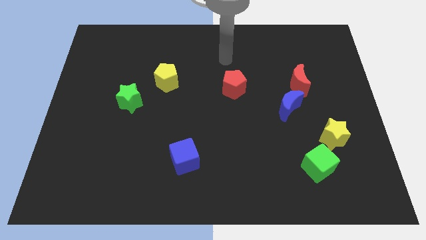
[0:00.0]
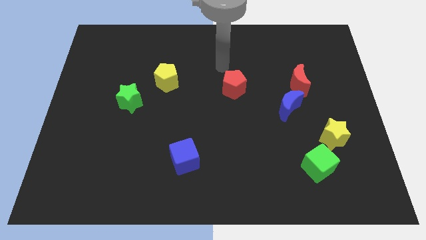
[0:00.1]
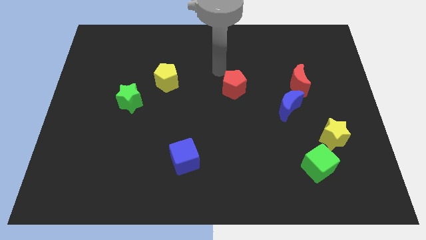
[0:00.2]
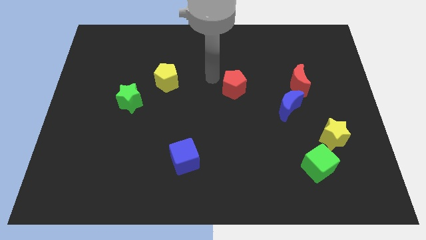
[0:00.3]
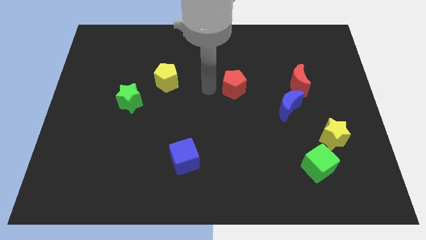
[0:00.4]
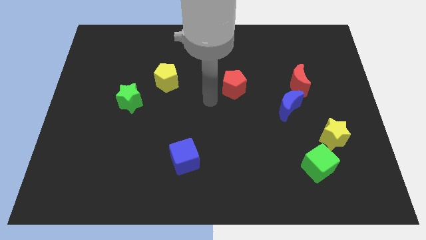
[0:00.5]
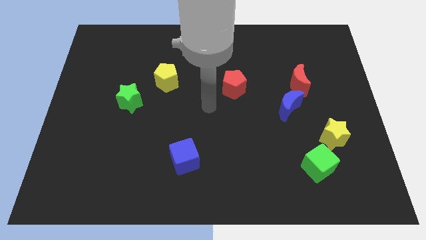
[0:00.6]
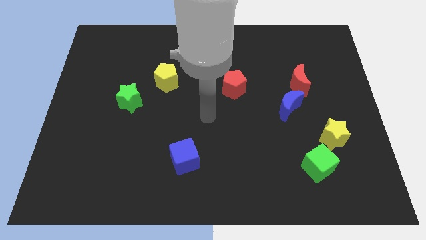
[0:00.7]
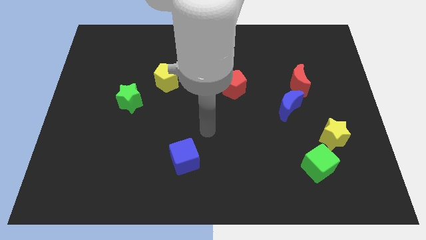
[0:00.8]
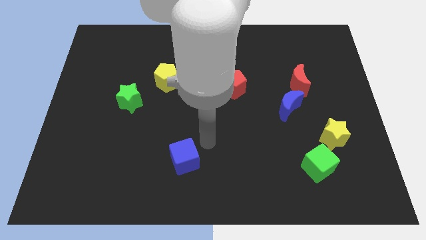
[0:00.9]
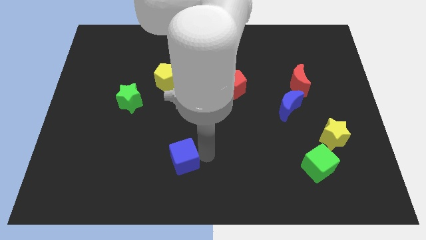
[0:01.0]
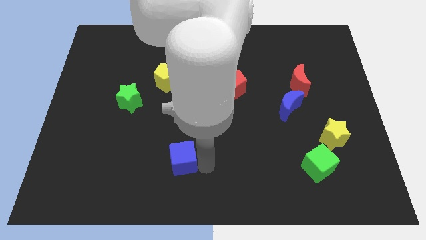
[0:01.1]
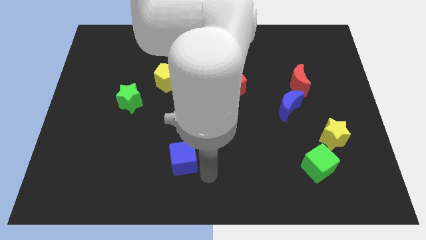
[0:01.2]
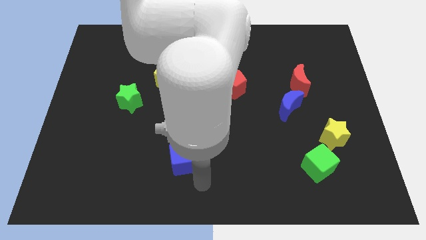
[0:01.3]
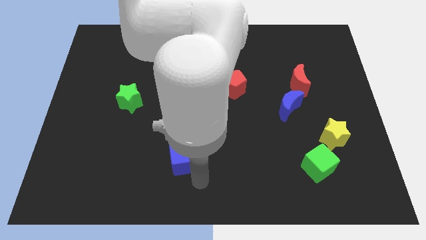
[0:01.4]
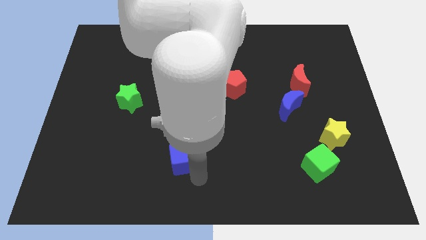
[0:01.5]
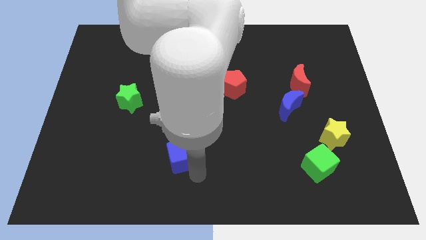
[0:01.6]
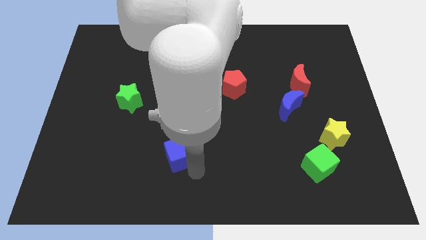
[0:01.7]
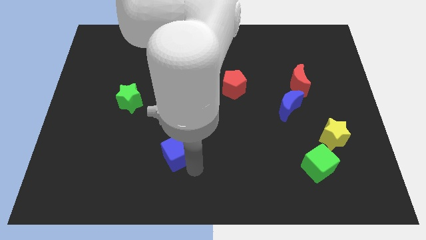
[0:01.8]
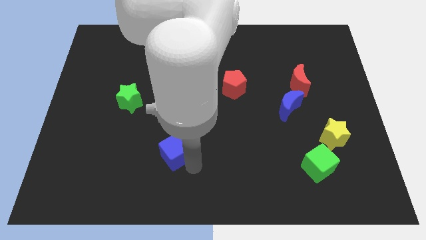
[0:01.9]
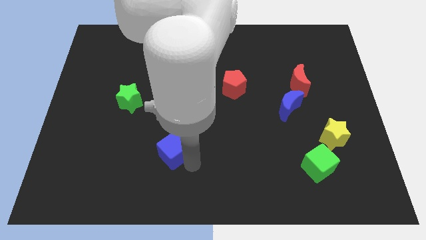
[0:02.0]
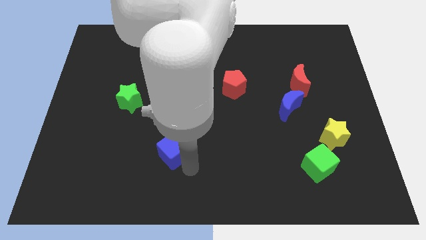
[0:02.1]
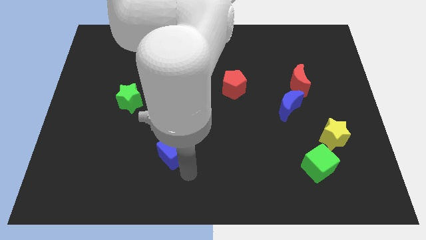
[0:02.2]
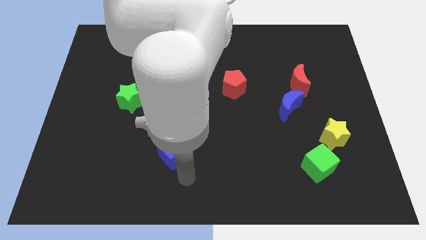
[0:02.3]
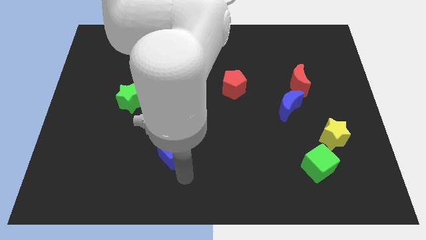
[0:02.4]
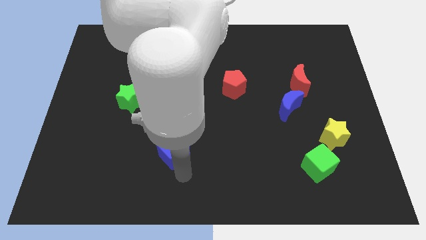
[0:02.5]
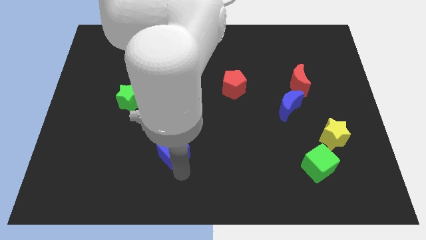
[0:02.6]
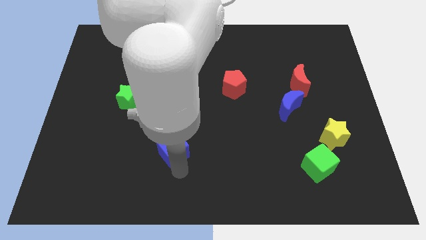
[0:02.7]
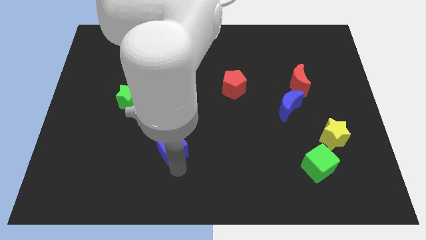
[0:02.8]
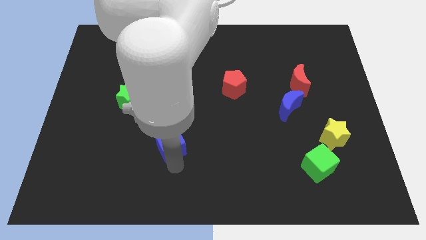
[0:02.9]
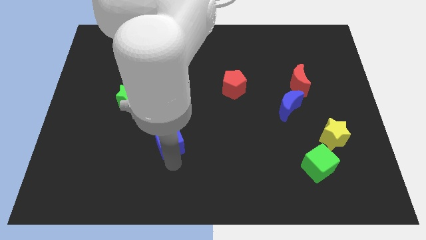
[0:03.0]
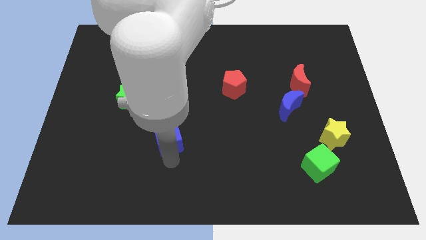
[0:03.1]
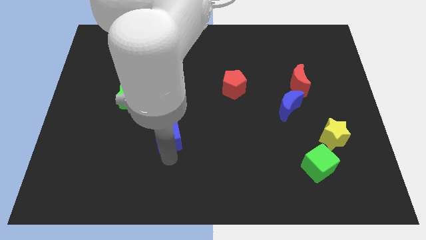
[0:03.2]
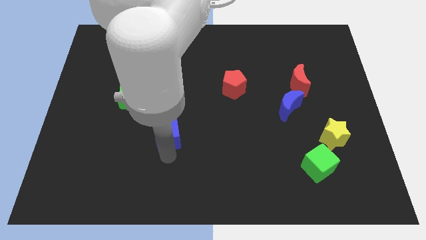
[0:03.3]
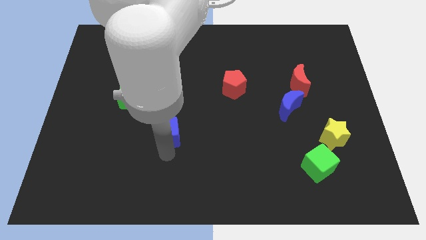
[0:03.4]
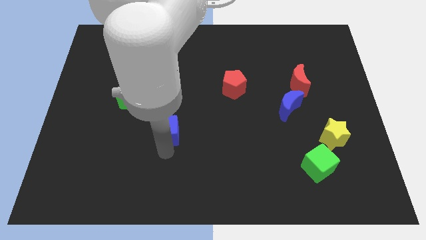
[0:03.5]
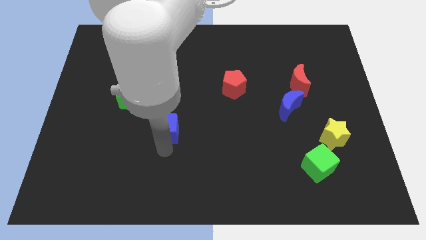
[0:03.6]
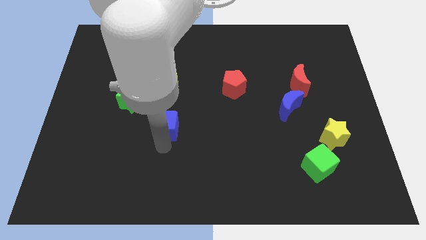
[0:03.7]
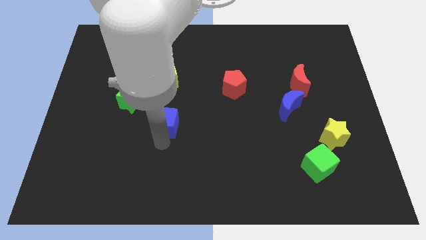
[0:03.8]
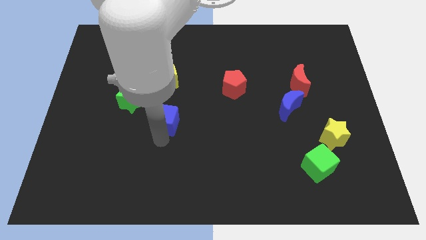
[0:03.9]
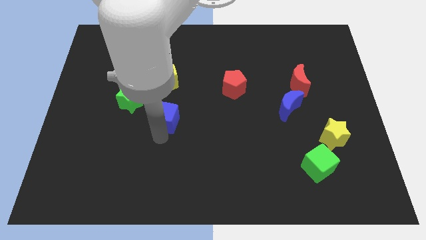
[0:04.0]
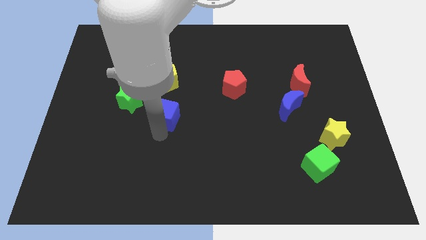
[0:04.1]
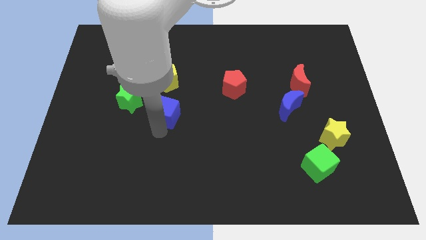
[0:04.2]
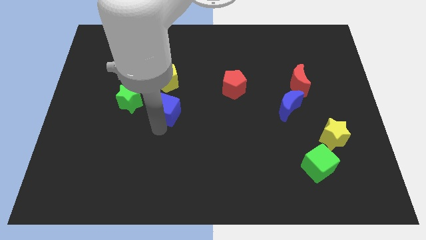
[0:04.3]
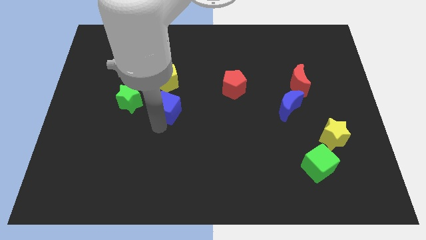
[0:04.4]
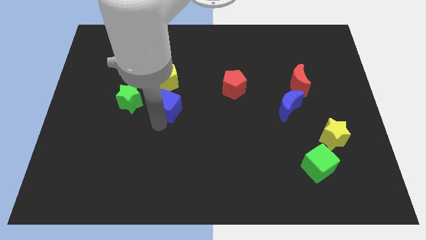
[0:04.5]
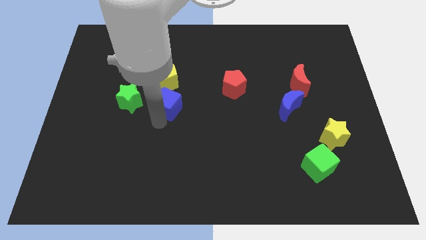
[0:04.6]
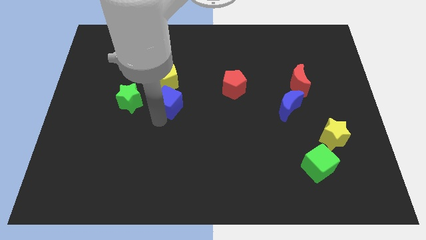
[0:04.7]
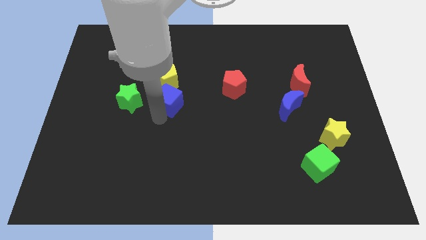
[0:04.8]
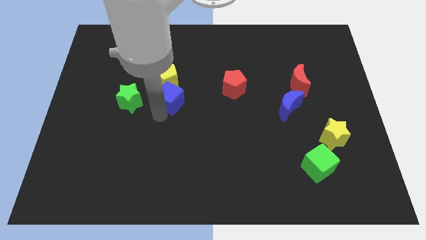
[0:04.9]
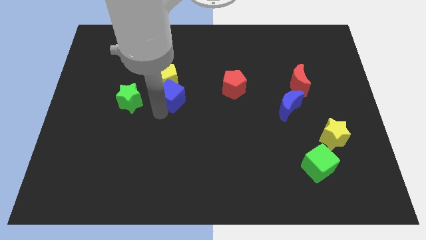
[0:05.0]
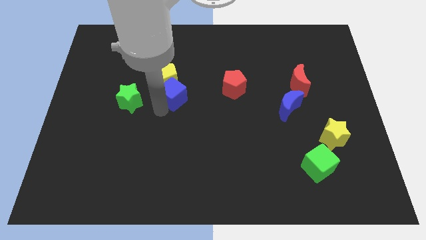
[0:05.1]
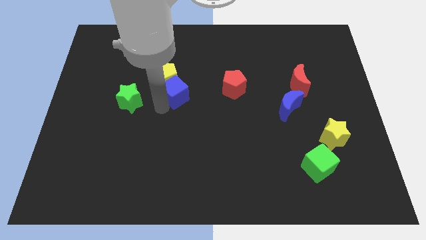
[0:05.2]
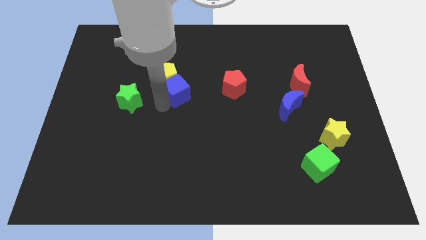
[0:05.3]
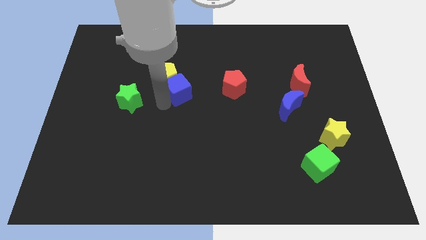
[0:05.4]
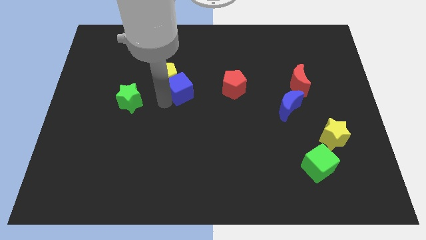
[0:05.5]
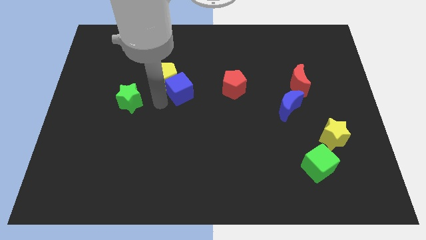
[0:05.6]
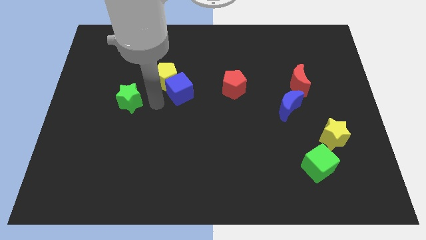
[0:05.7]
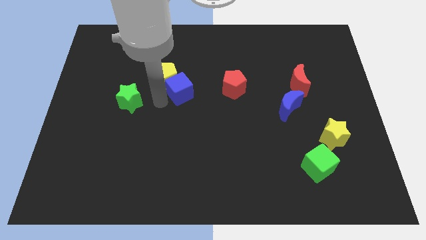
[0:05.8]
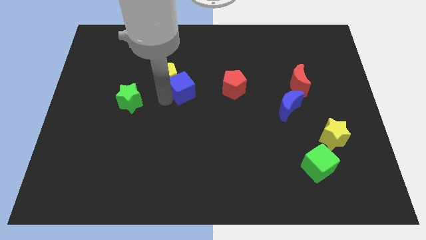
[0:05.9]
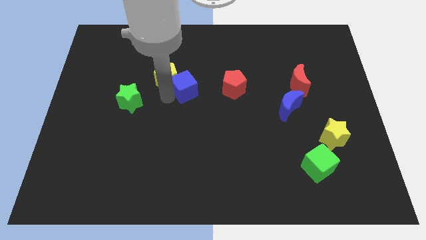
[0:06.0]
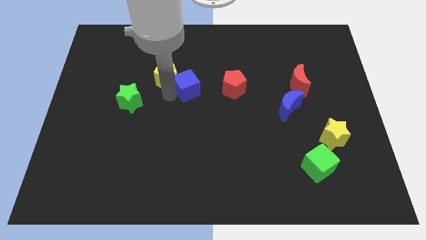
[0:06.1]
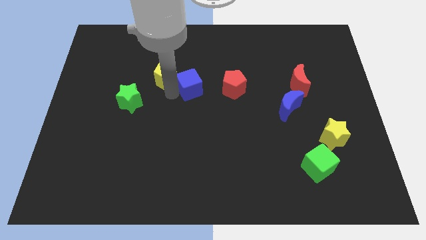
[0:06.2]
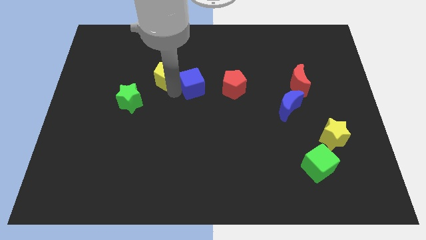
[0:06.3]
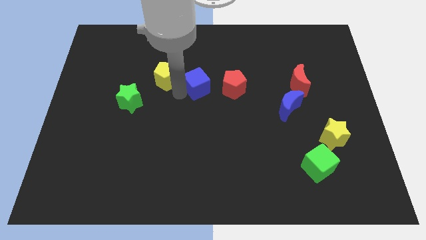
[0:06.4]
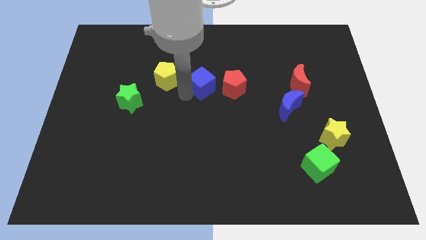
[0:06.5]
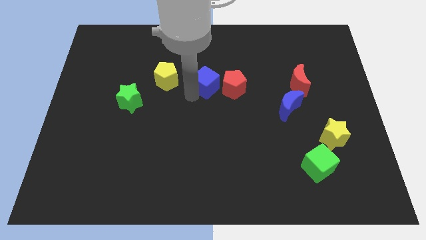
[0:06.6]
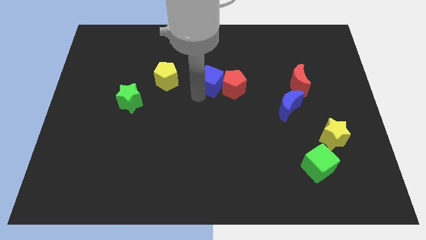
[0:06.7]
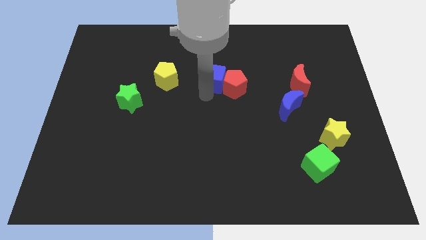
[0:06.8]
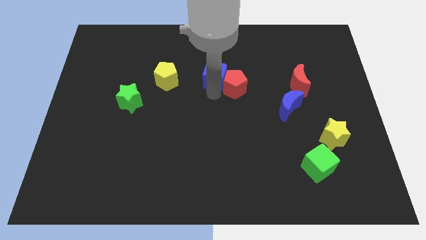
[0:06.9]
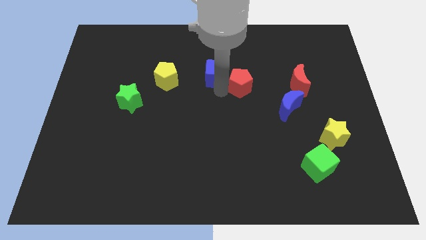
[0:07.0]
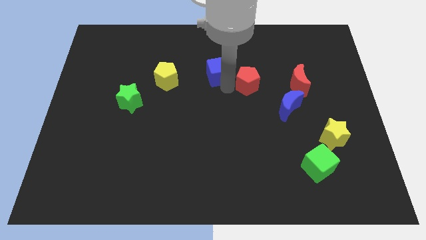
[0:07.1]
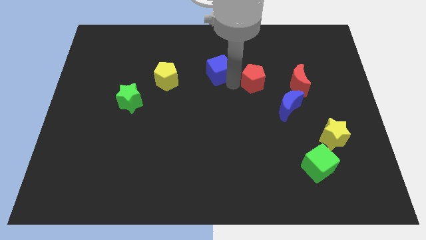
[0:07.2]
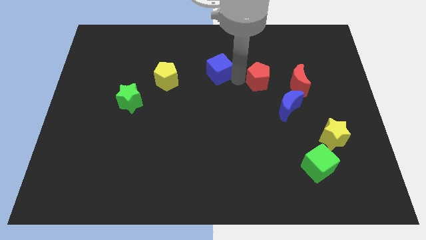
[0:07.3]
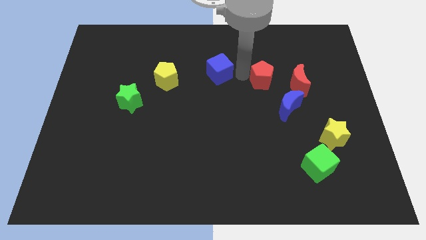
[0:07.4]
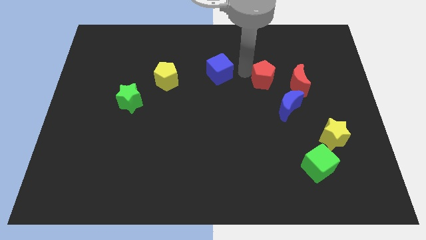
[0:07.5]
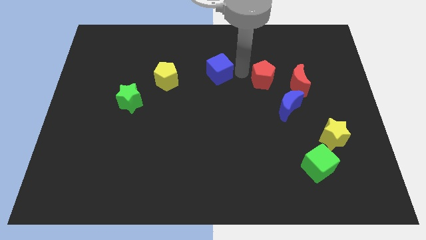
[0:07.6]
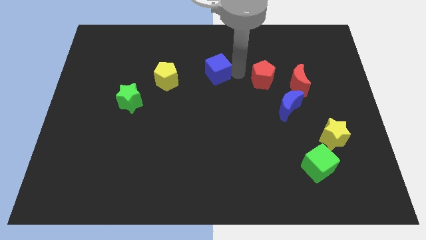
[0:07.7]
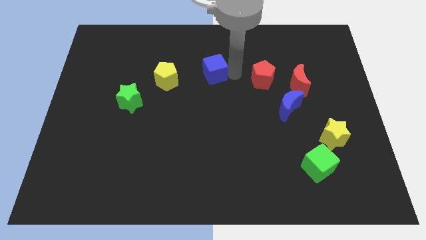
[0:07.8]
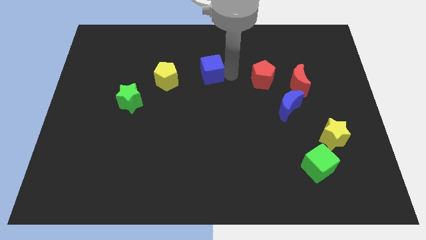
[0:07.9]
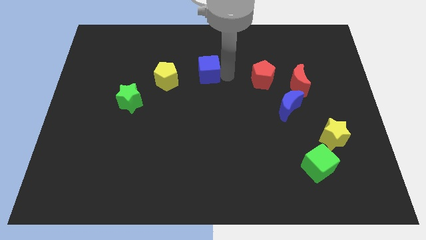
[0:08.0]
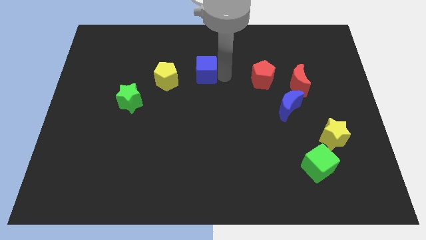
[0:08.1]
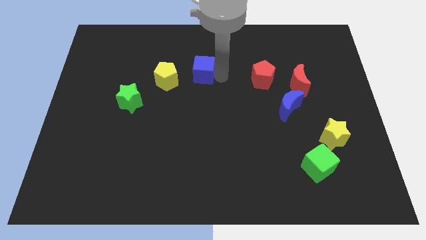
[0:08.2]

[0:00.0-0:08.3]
push the blue cube to the top right of the yellow pentagon
